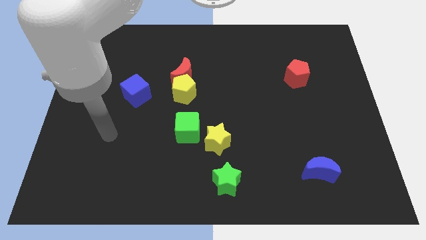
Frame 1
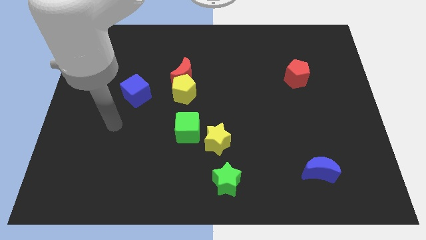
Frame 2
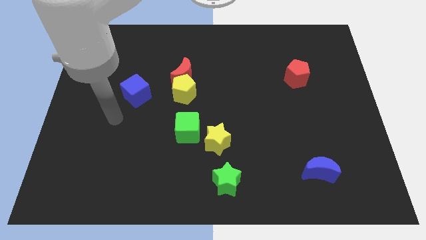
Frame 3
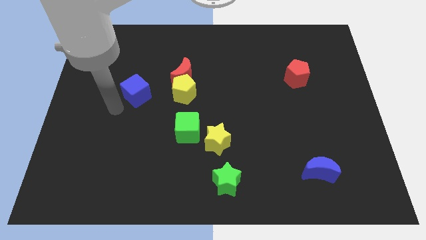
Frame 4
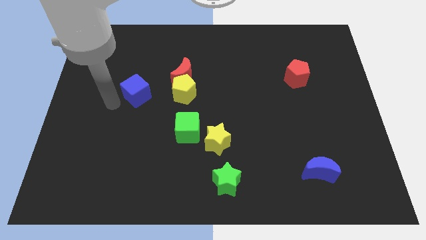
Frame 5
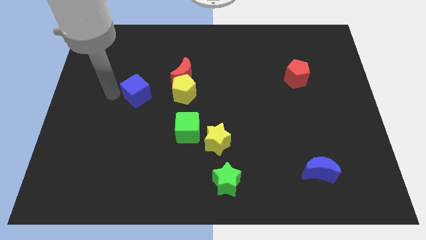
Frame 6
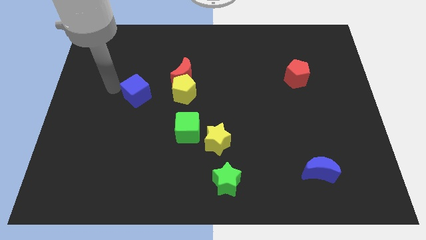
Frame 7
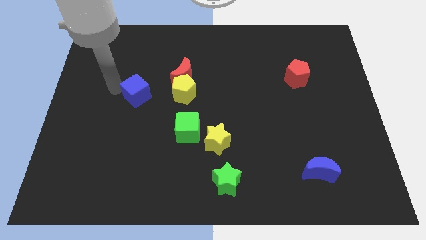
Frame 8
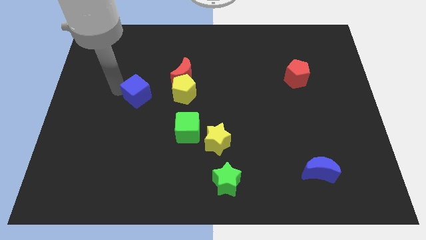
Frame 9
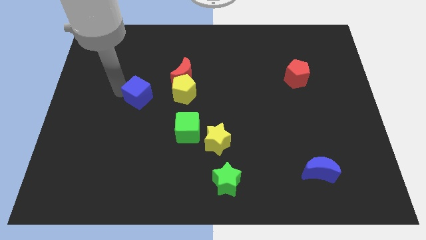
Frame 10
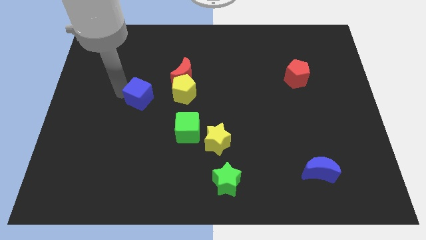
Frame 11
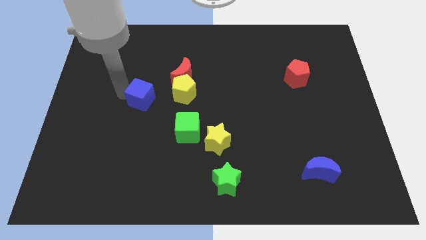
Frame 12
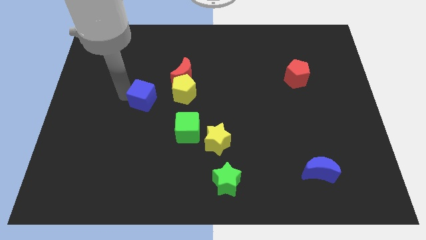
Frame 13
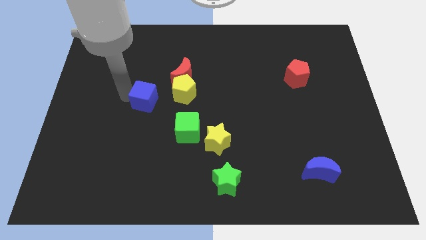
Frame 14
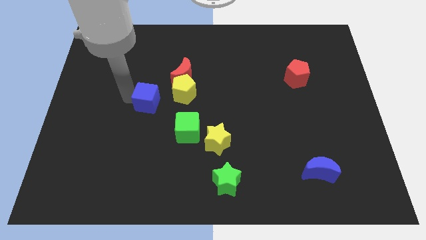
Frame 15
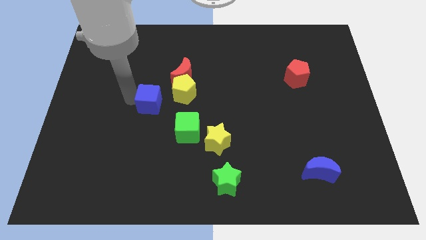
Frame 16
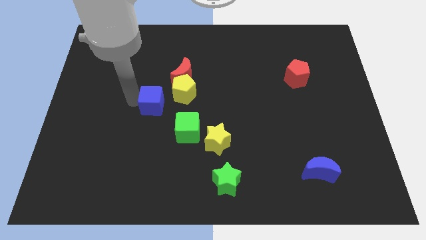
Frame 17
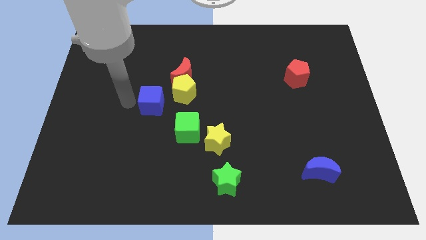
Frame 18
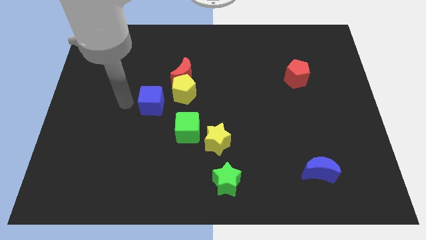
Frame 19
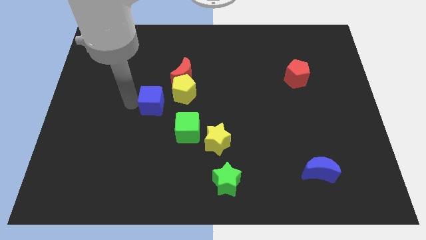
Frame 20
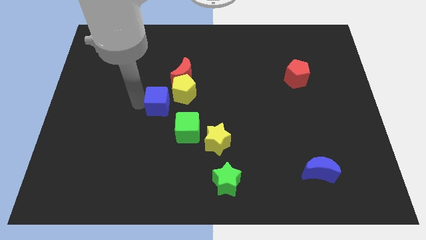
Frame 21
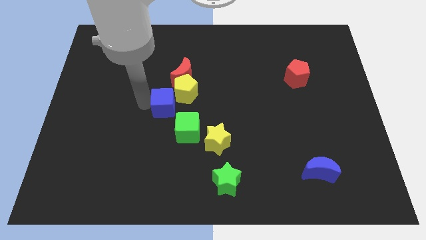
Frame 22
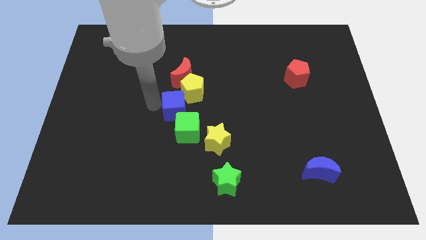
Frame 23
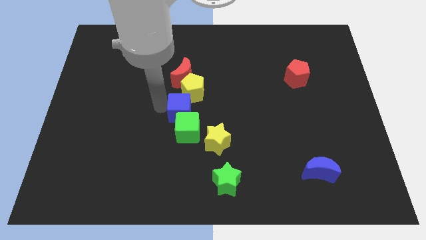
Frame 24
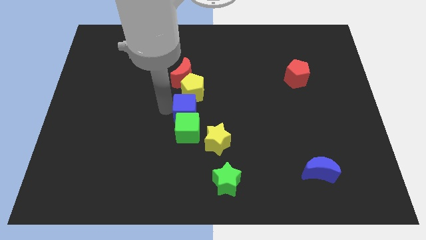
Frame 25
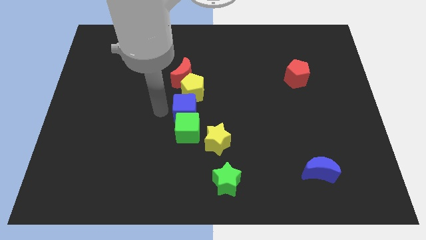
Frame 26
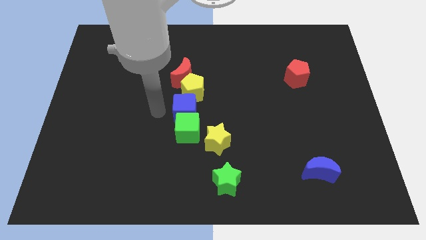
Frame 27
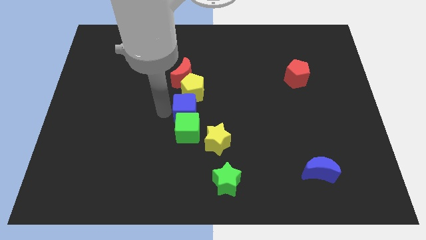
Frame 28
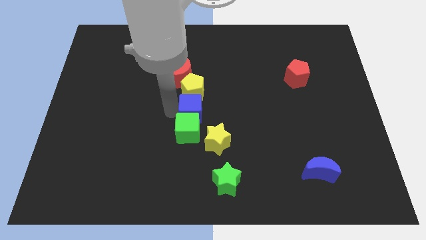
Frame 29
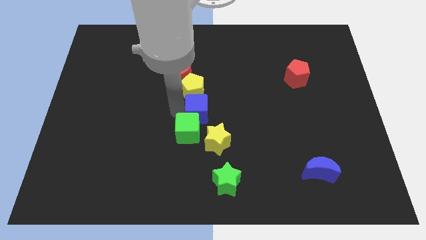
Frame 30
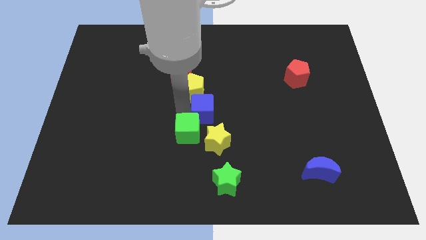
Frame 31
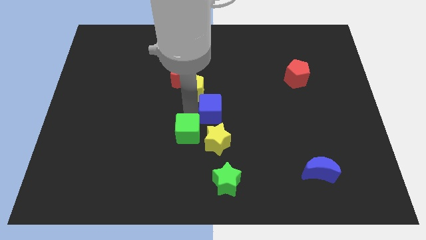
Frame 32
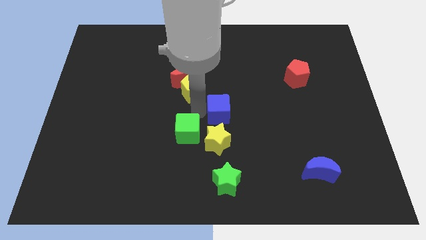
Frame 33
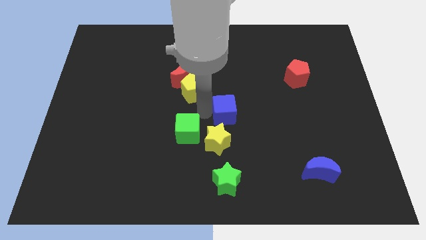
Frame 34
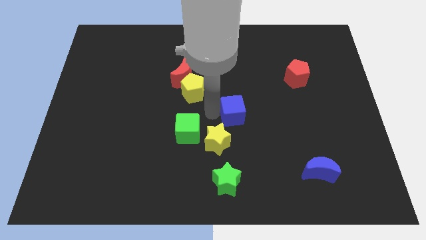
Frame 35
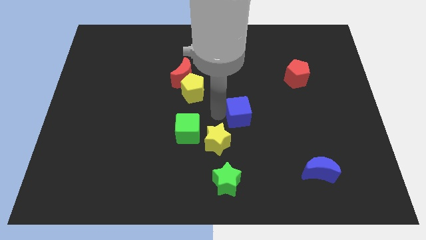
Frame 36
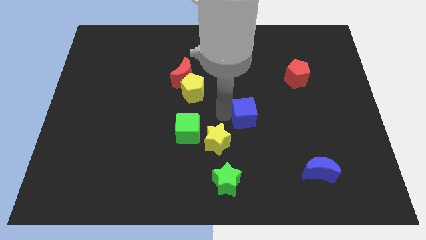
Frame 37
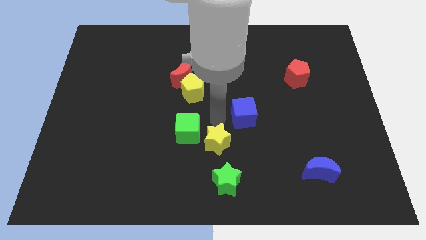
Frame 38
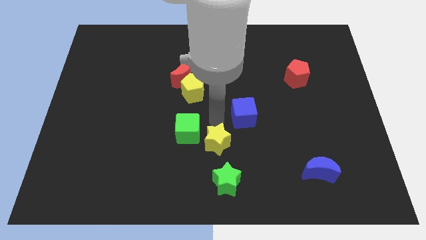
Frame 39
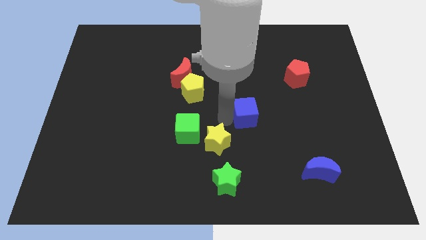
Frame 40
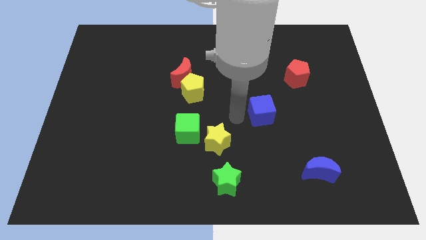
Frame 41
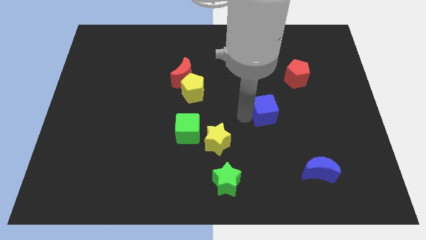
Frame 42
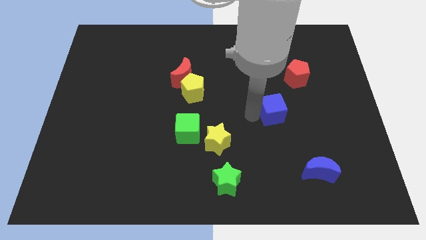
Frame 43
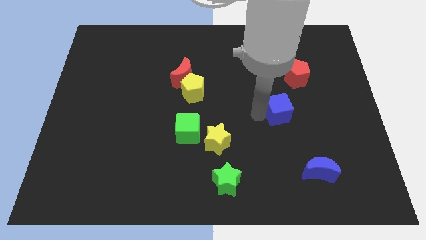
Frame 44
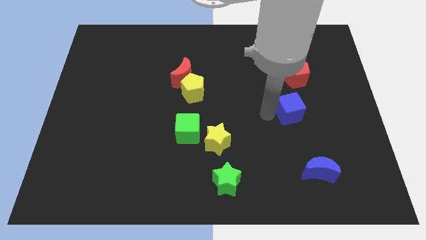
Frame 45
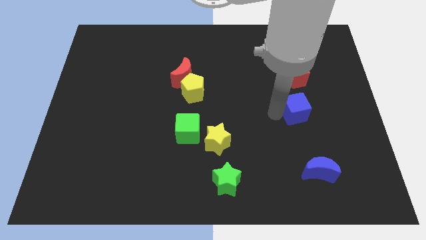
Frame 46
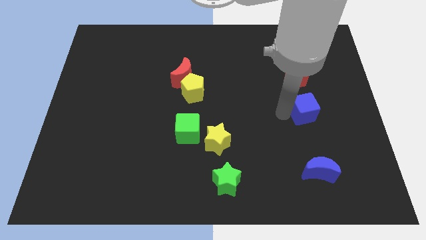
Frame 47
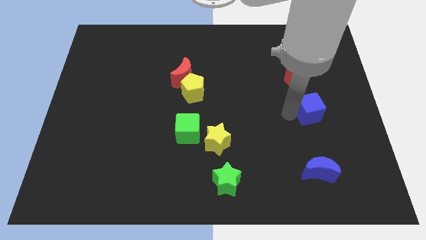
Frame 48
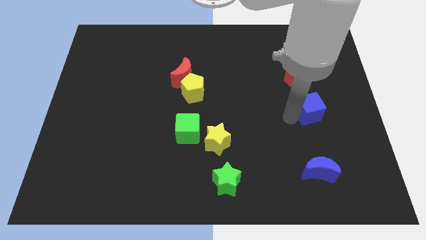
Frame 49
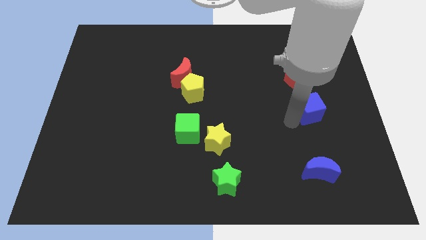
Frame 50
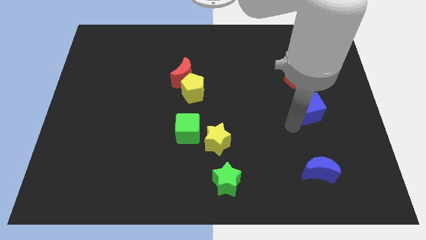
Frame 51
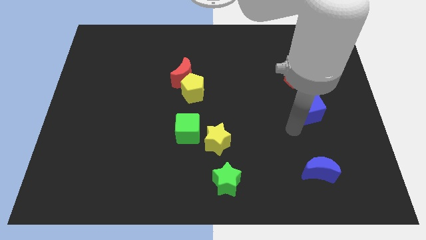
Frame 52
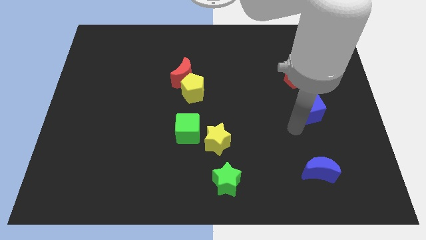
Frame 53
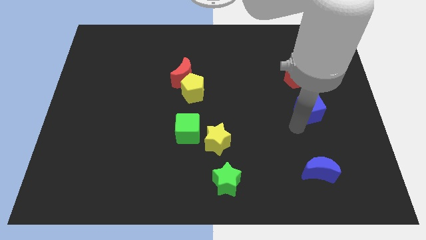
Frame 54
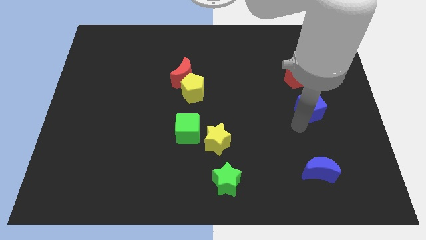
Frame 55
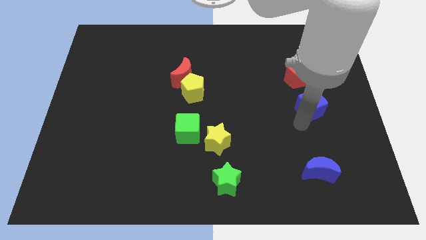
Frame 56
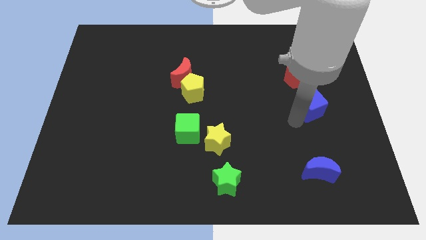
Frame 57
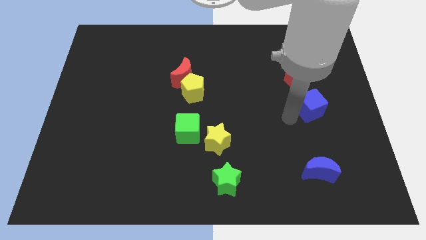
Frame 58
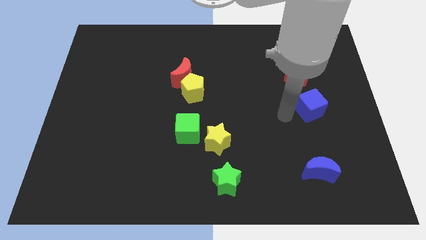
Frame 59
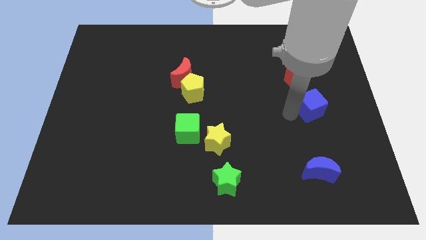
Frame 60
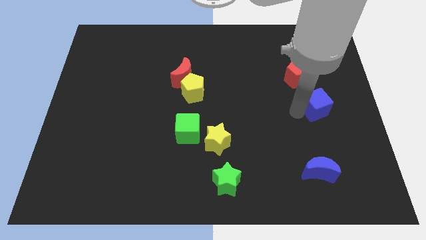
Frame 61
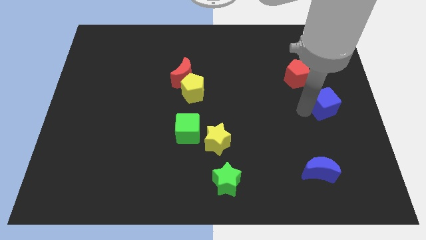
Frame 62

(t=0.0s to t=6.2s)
push the blue cube to the right side
